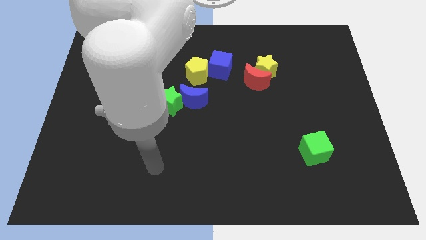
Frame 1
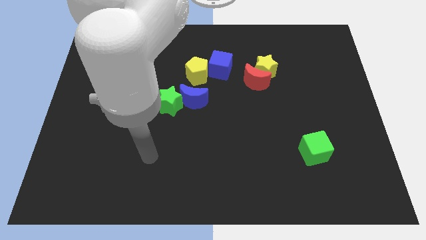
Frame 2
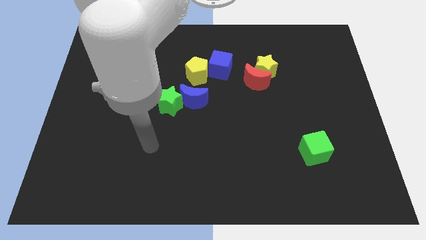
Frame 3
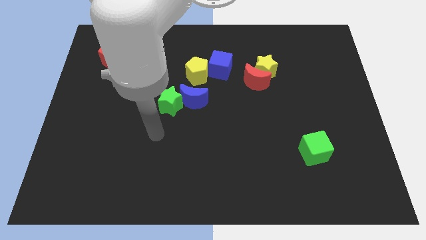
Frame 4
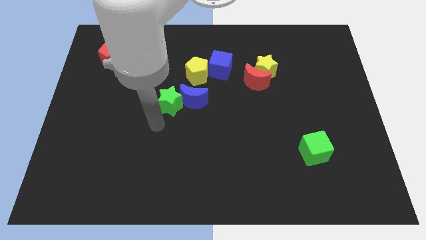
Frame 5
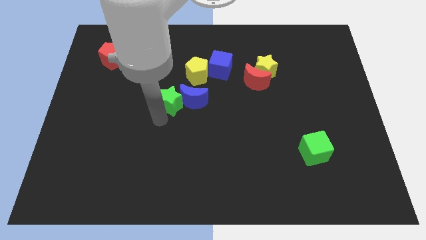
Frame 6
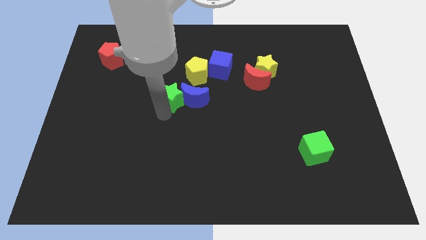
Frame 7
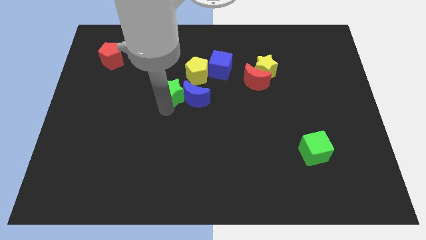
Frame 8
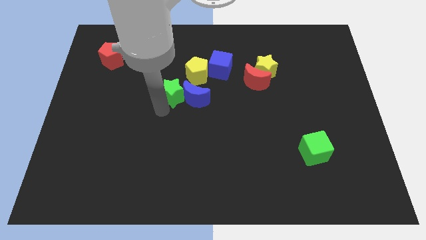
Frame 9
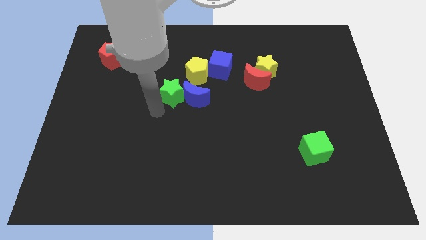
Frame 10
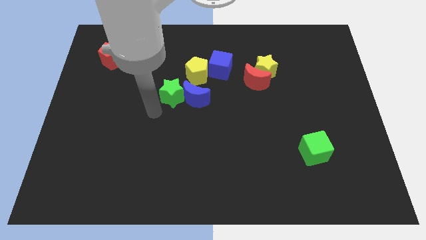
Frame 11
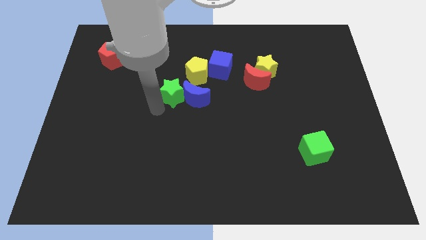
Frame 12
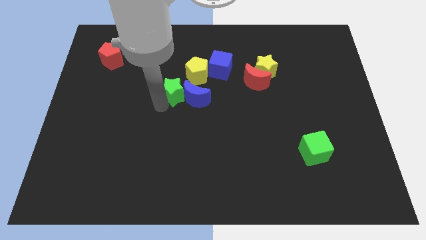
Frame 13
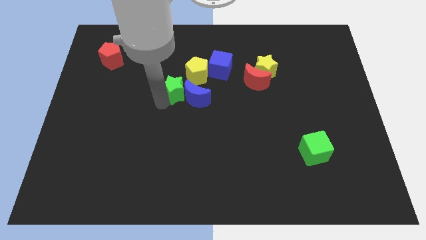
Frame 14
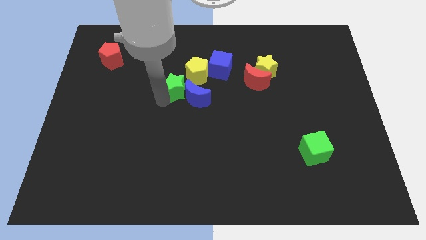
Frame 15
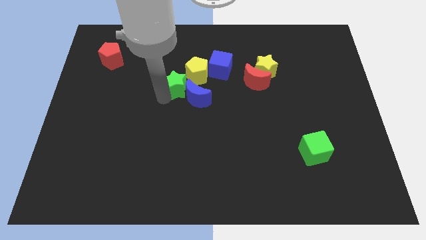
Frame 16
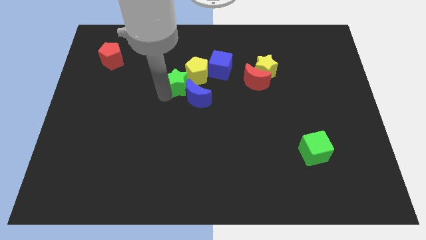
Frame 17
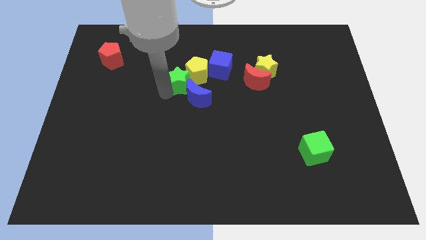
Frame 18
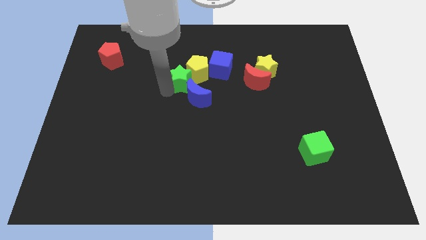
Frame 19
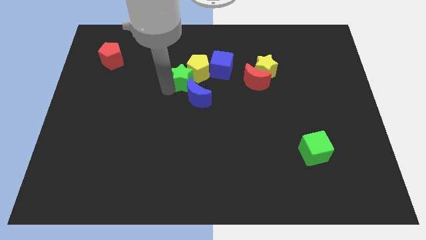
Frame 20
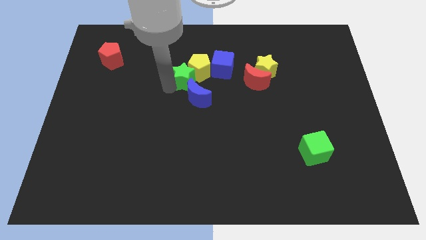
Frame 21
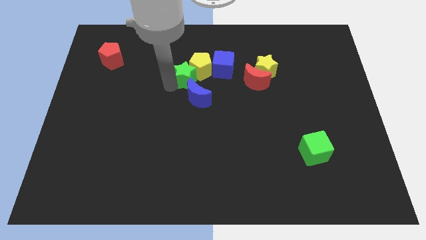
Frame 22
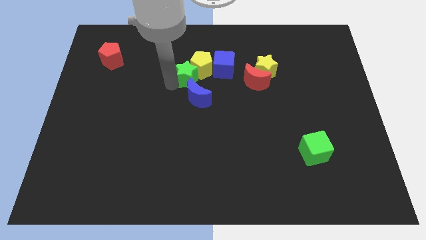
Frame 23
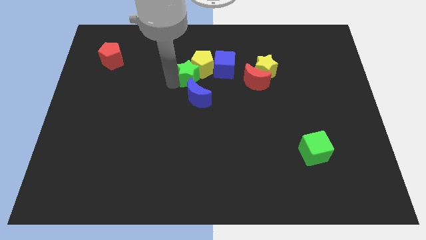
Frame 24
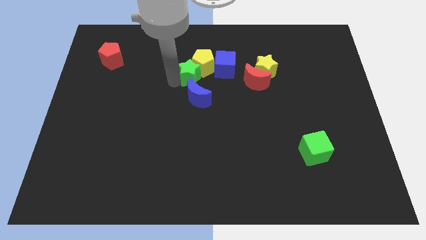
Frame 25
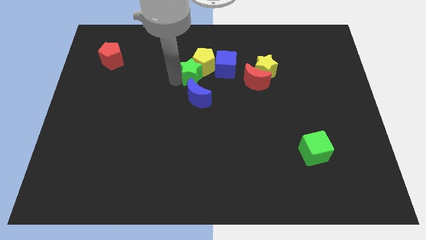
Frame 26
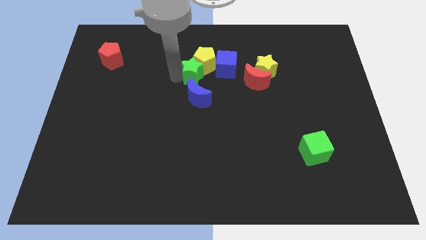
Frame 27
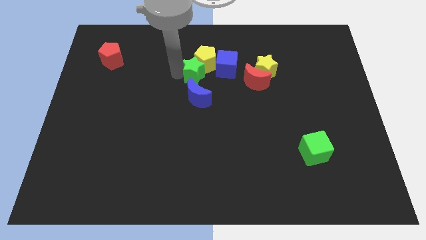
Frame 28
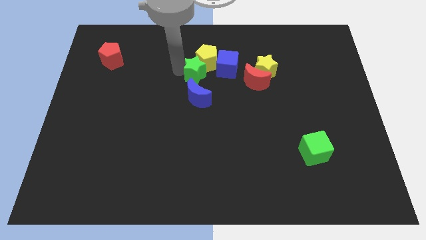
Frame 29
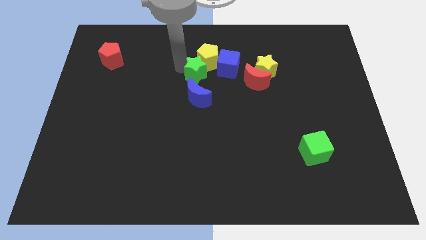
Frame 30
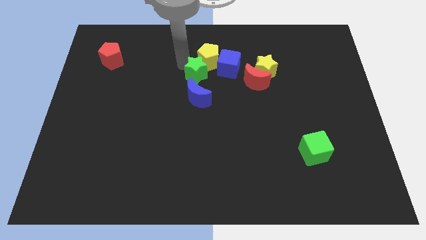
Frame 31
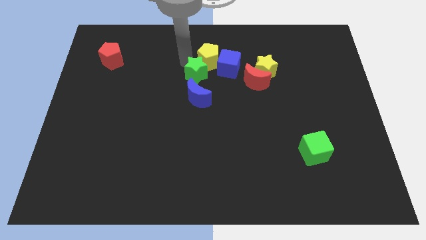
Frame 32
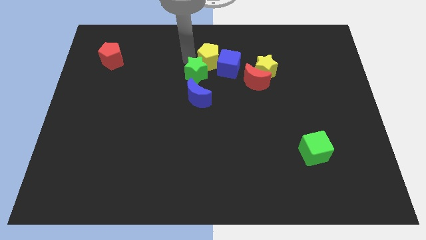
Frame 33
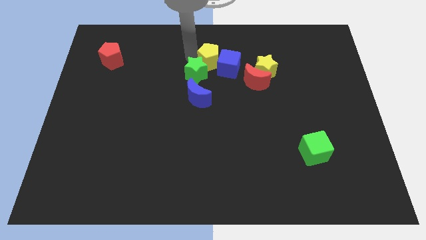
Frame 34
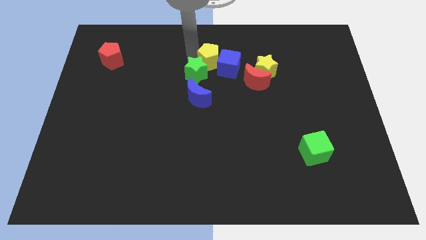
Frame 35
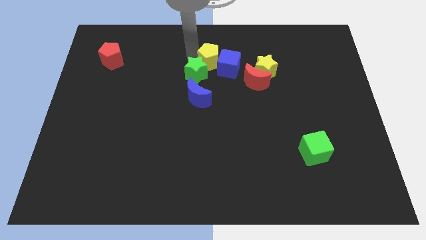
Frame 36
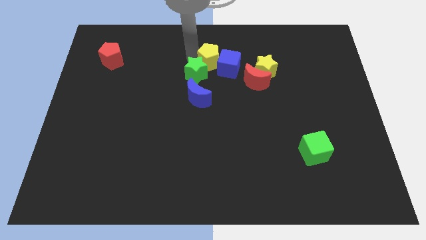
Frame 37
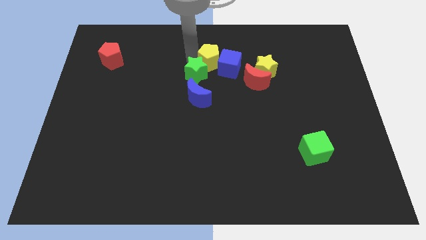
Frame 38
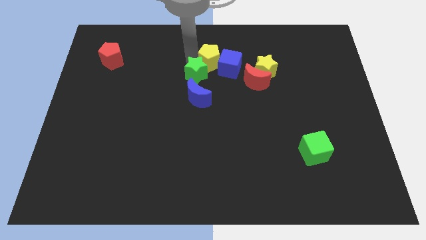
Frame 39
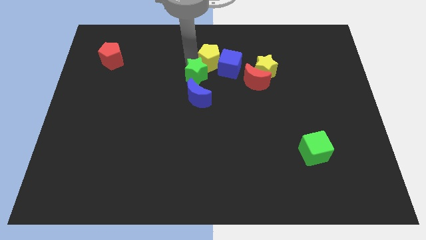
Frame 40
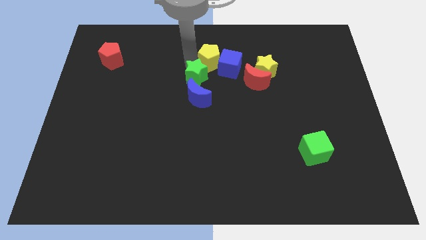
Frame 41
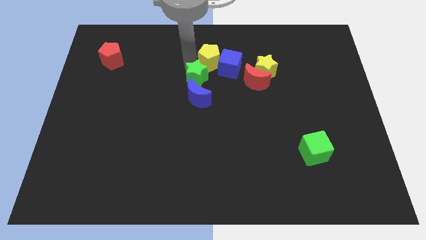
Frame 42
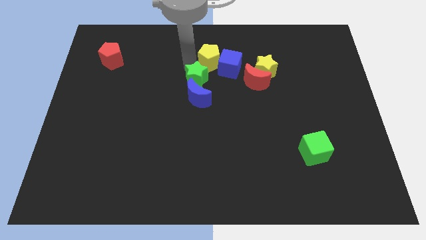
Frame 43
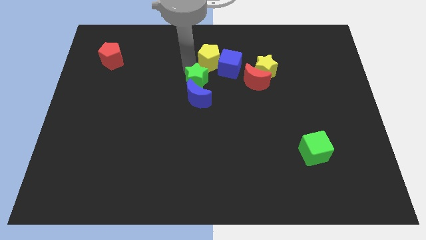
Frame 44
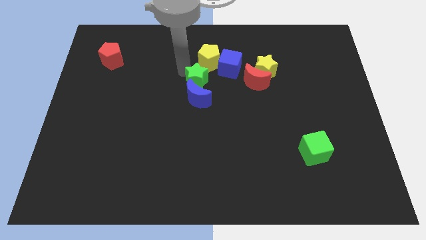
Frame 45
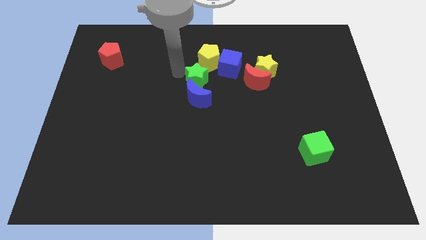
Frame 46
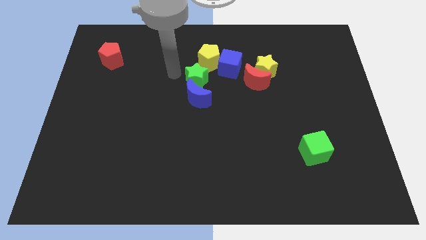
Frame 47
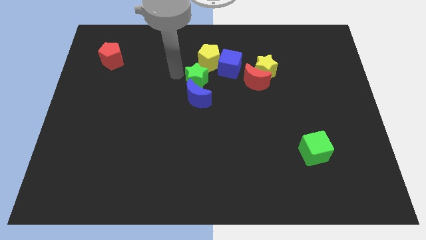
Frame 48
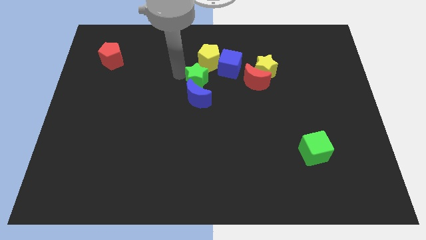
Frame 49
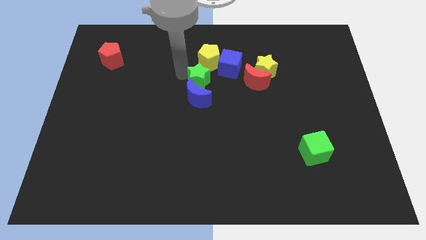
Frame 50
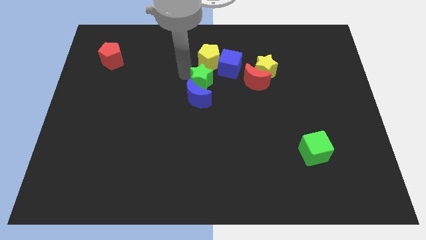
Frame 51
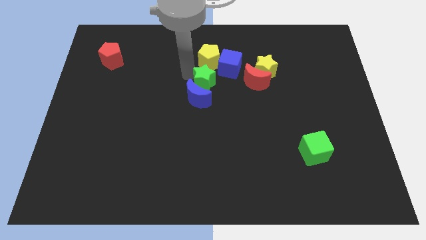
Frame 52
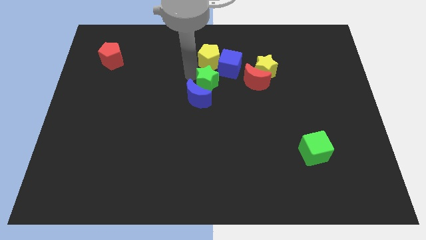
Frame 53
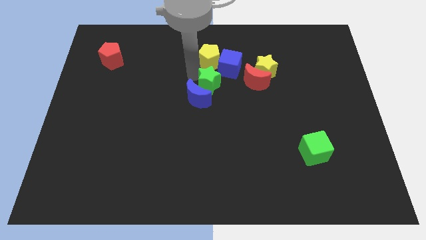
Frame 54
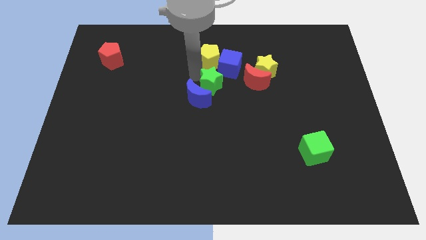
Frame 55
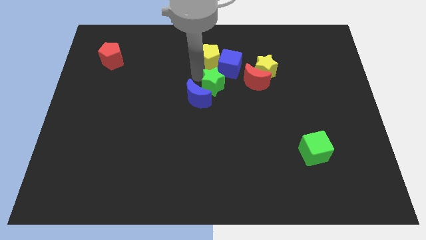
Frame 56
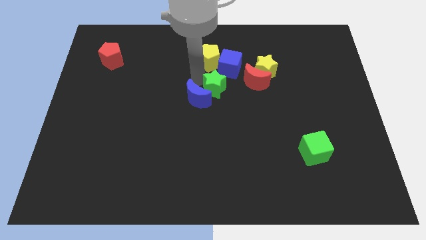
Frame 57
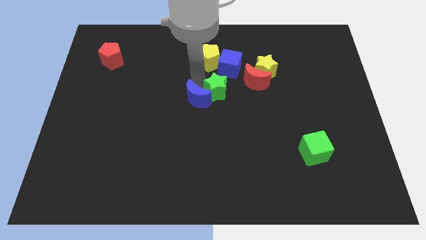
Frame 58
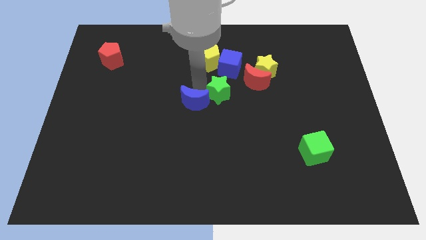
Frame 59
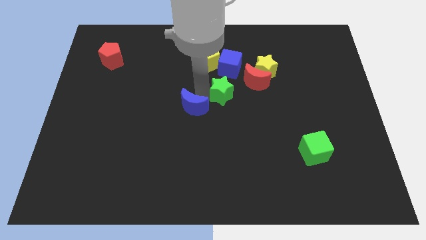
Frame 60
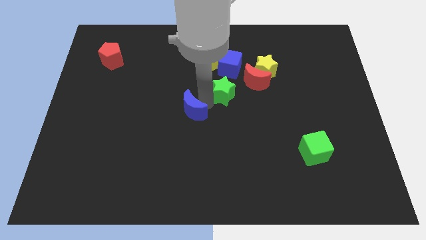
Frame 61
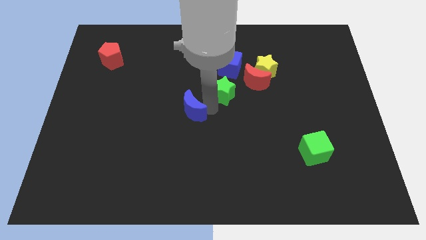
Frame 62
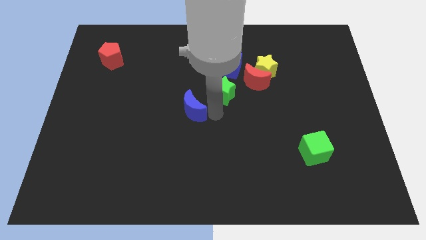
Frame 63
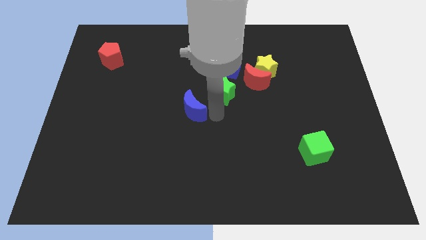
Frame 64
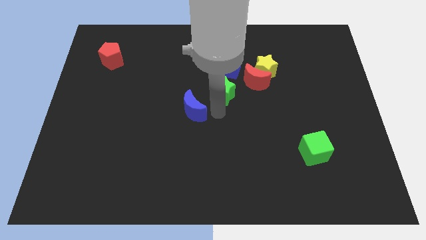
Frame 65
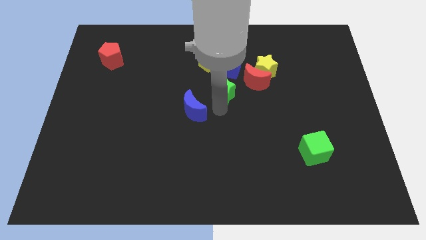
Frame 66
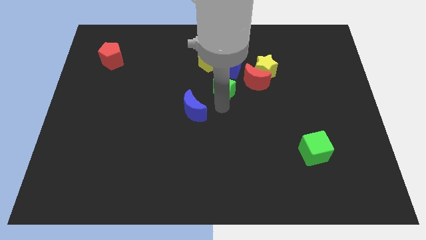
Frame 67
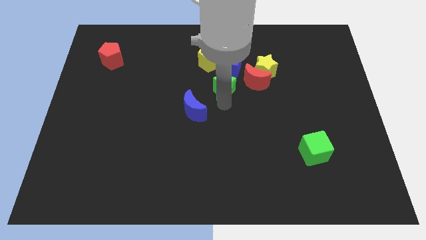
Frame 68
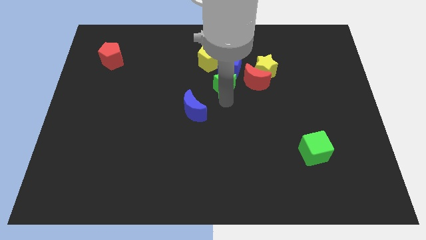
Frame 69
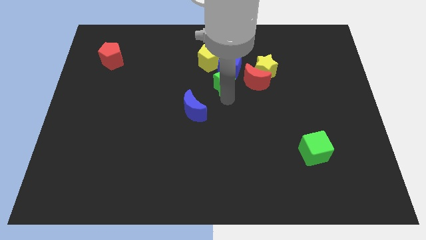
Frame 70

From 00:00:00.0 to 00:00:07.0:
slide the green star towards the blue cube

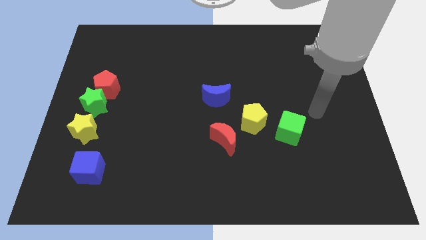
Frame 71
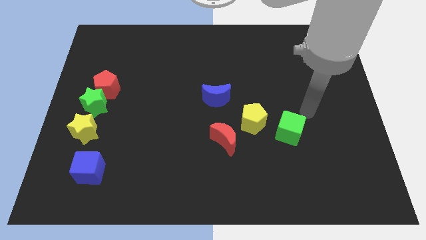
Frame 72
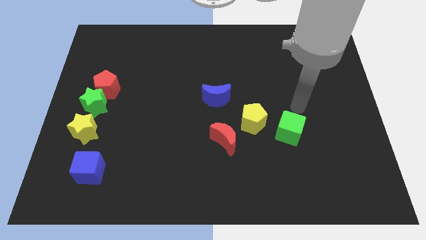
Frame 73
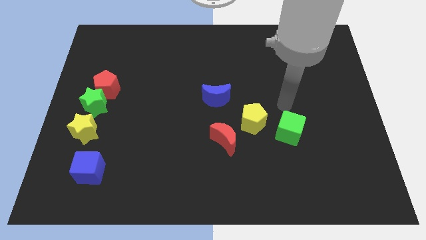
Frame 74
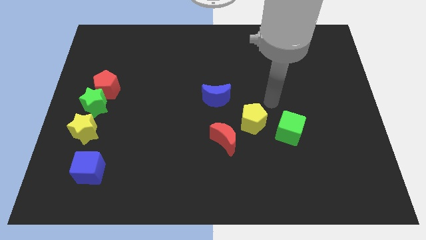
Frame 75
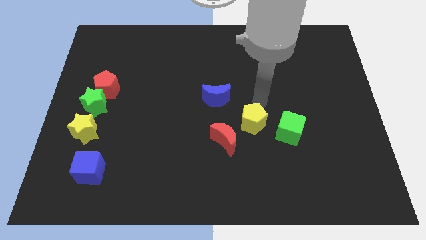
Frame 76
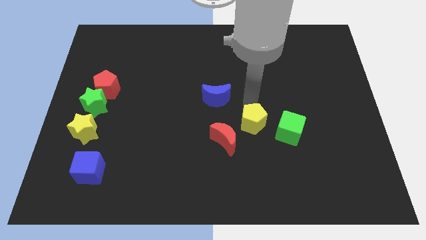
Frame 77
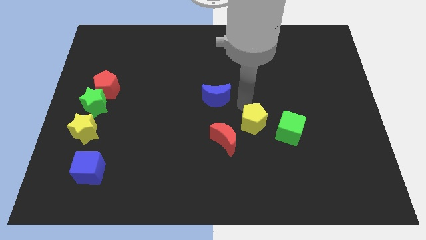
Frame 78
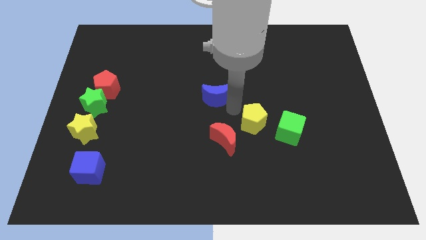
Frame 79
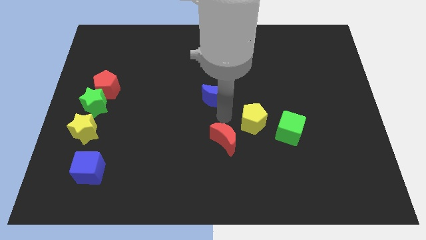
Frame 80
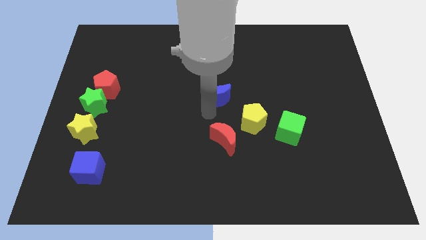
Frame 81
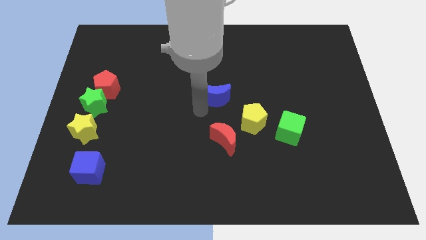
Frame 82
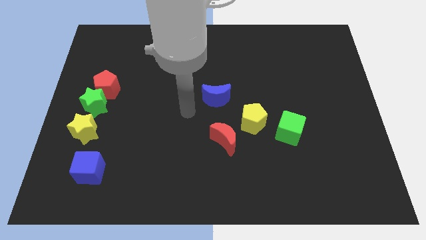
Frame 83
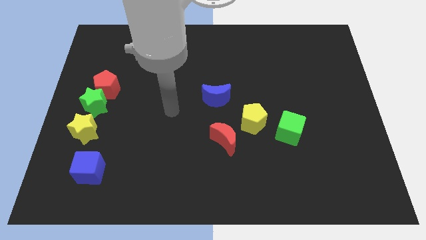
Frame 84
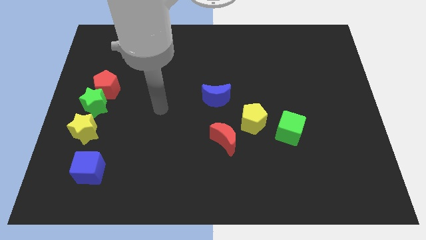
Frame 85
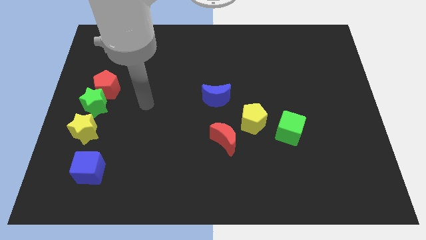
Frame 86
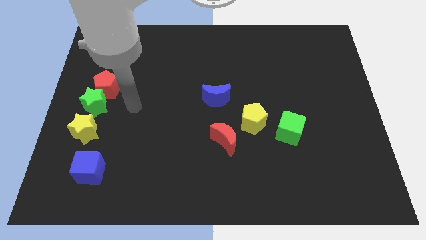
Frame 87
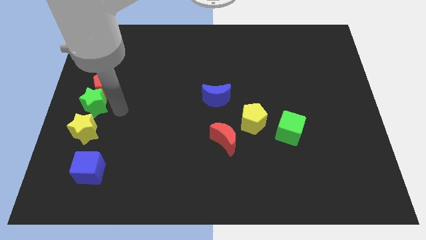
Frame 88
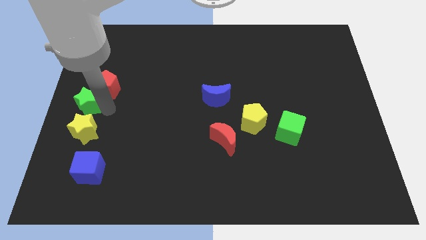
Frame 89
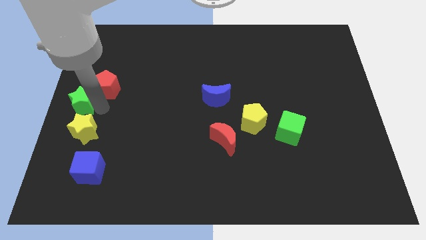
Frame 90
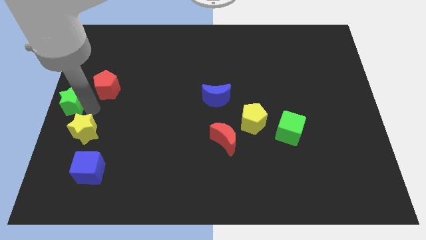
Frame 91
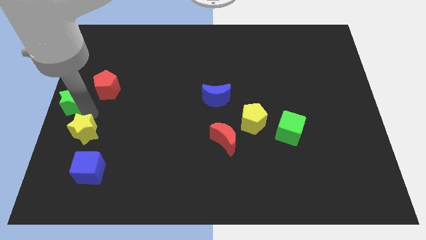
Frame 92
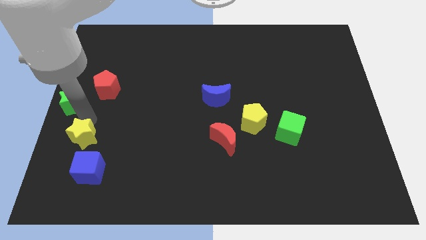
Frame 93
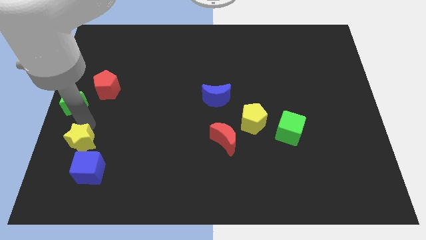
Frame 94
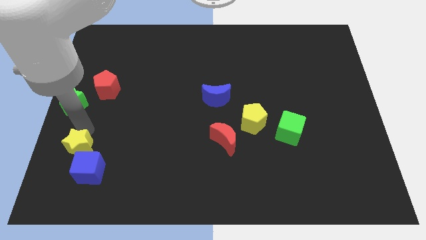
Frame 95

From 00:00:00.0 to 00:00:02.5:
put the yellow star close to the blue cube
